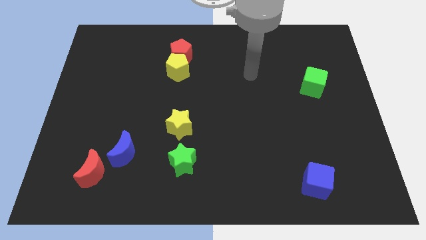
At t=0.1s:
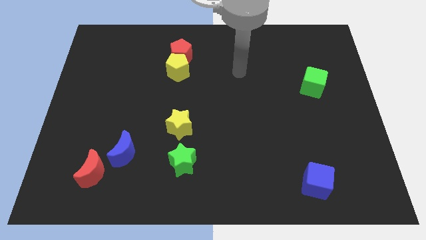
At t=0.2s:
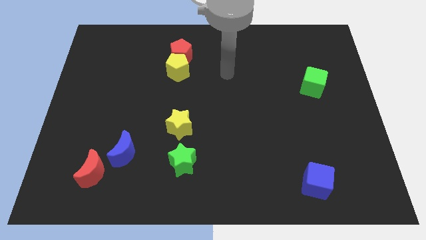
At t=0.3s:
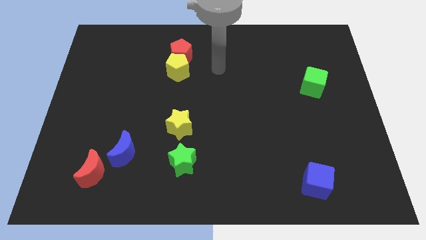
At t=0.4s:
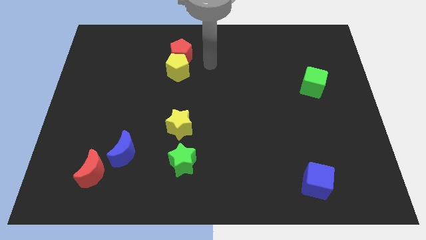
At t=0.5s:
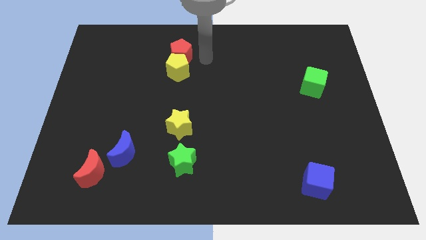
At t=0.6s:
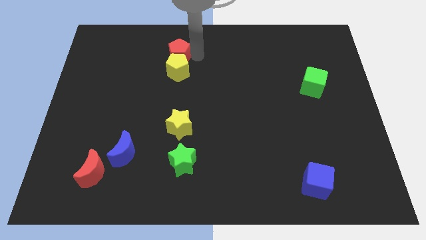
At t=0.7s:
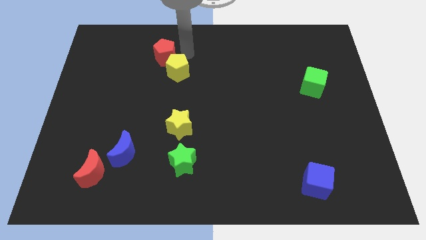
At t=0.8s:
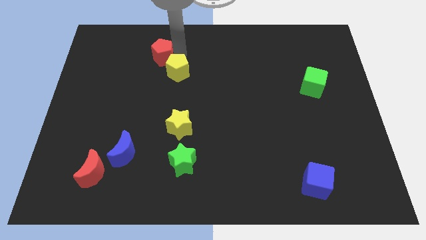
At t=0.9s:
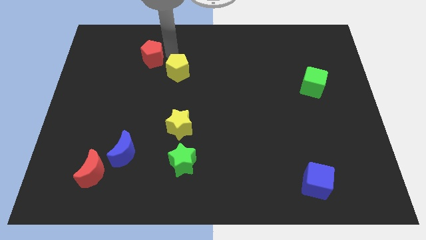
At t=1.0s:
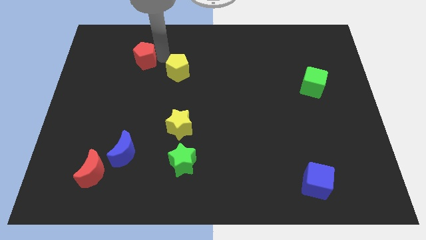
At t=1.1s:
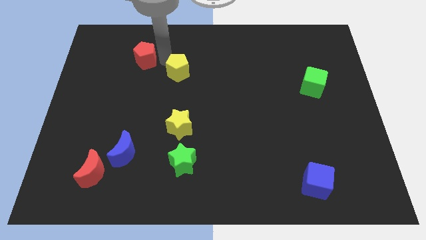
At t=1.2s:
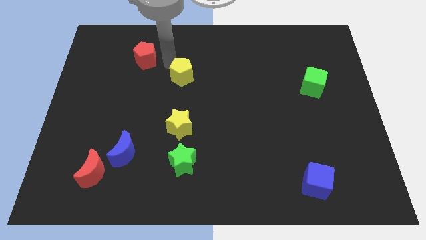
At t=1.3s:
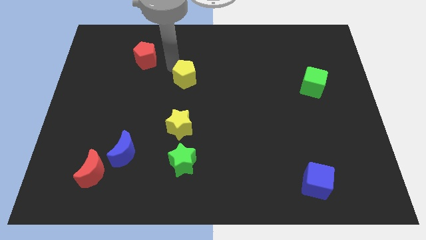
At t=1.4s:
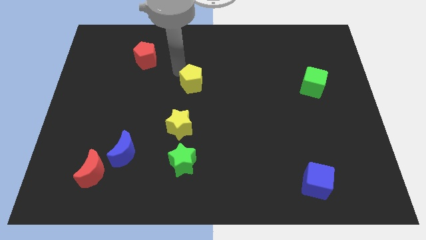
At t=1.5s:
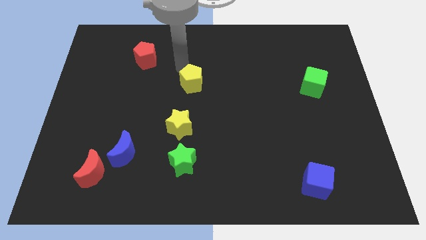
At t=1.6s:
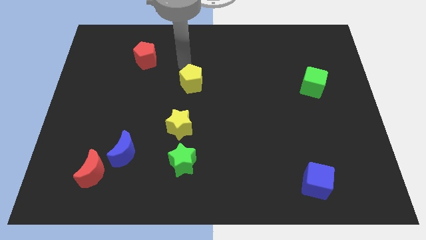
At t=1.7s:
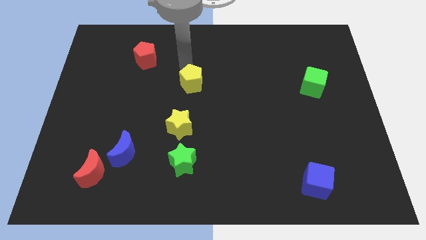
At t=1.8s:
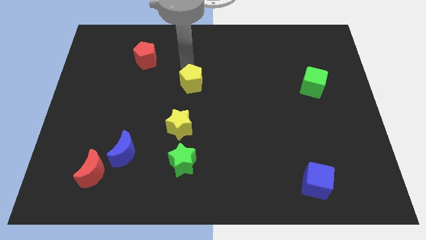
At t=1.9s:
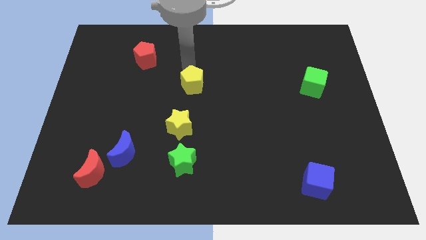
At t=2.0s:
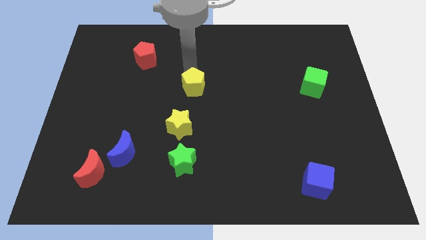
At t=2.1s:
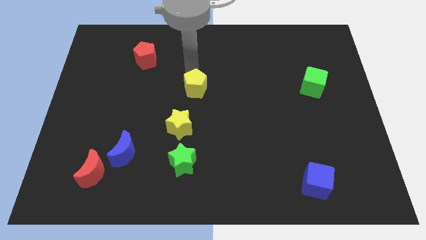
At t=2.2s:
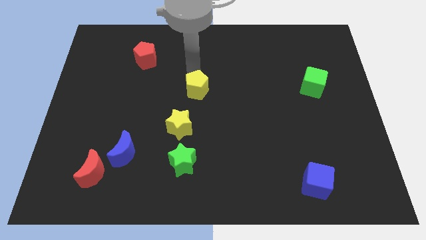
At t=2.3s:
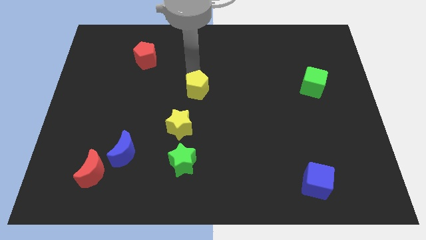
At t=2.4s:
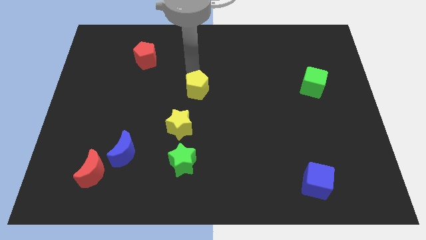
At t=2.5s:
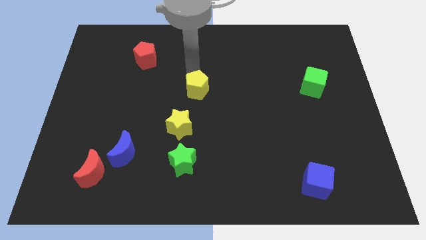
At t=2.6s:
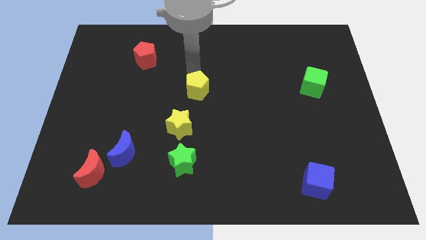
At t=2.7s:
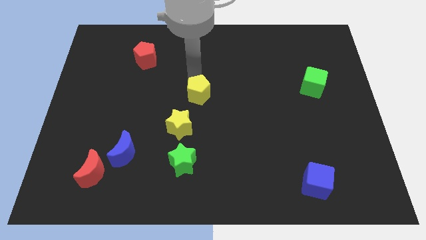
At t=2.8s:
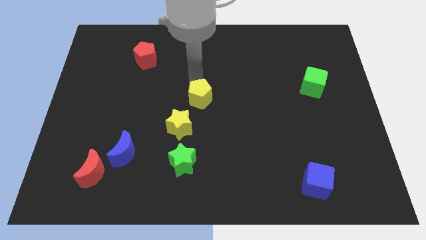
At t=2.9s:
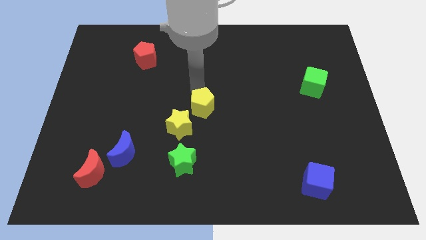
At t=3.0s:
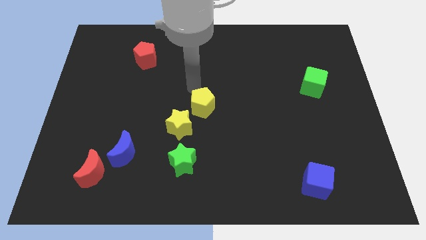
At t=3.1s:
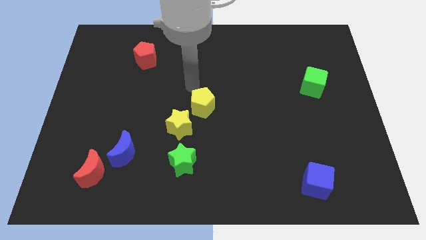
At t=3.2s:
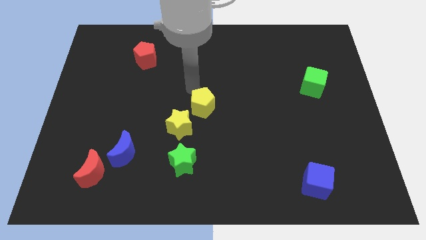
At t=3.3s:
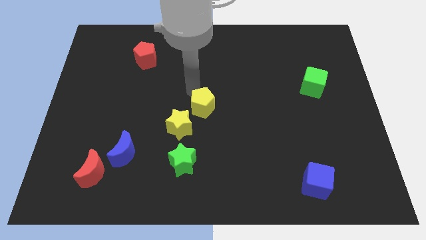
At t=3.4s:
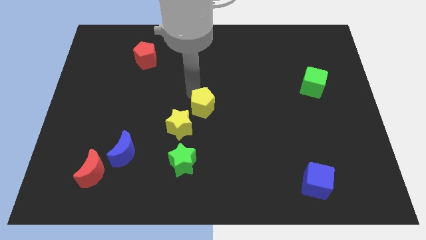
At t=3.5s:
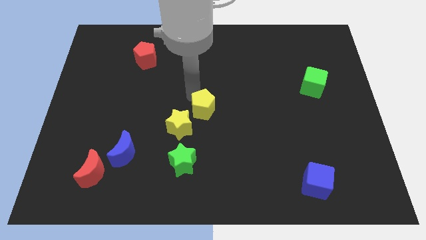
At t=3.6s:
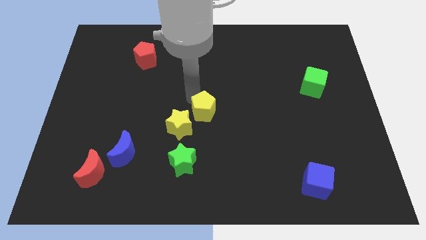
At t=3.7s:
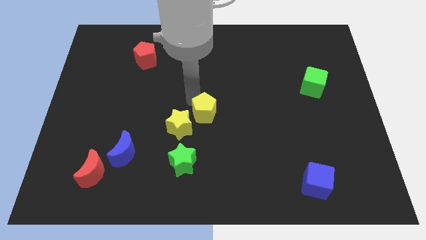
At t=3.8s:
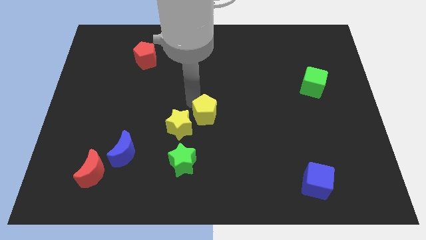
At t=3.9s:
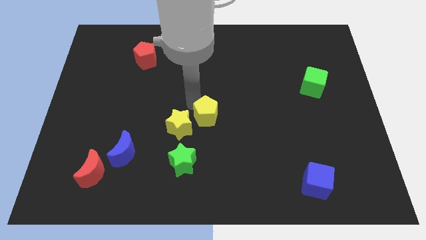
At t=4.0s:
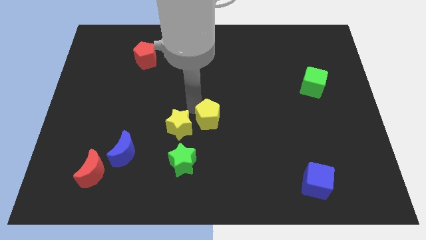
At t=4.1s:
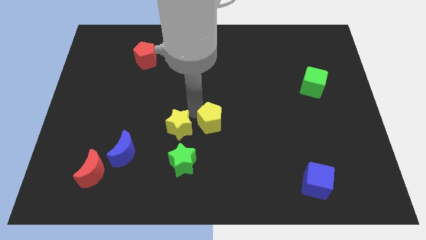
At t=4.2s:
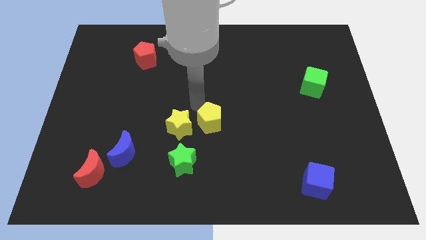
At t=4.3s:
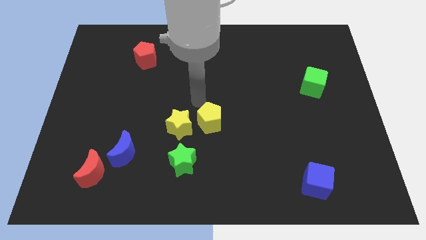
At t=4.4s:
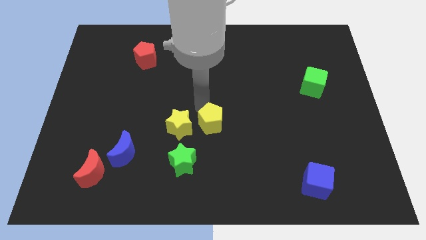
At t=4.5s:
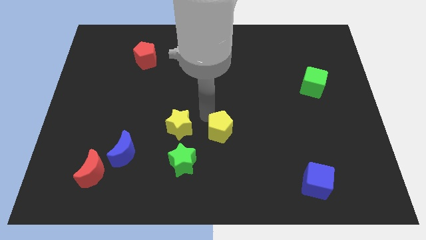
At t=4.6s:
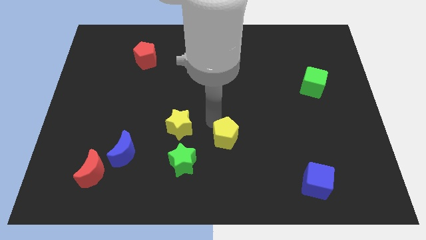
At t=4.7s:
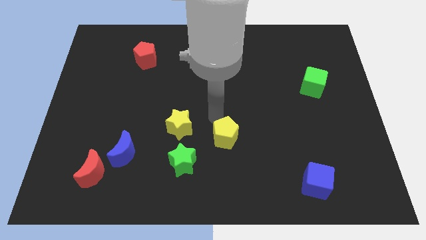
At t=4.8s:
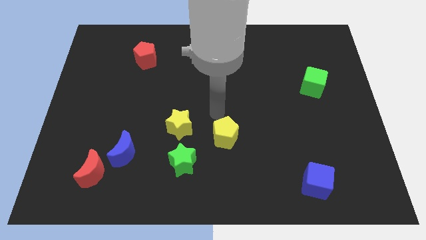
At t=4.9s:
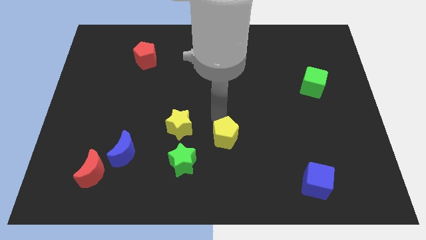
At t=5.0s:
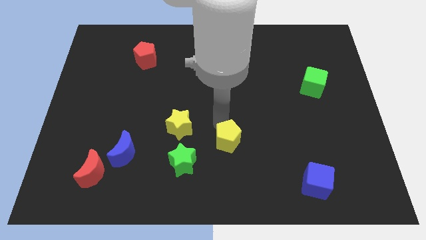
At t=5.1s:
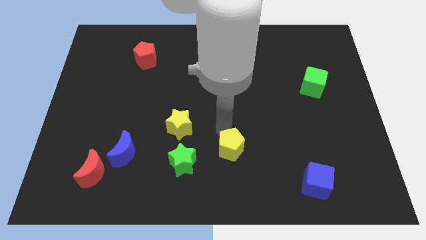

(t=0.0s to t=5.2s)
slide the yellow pentagon to the right side of the green star

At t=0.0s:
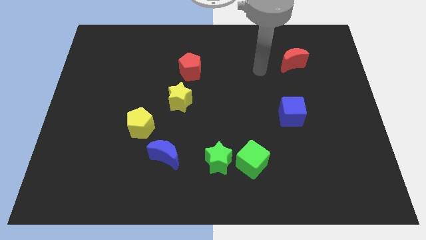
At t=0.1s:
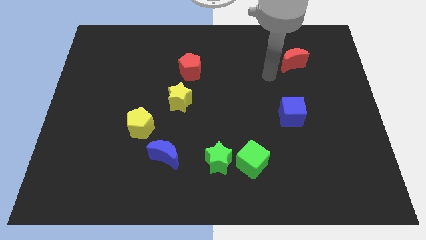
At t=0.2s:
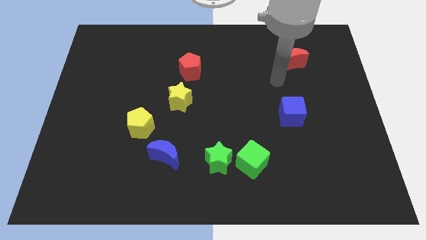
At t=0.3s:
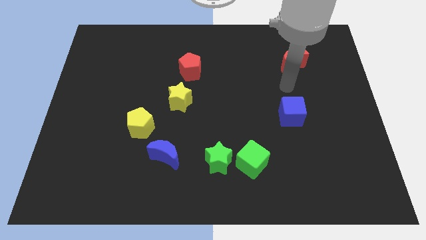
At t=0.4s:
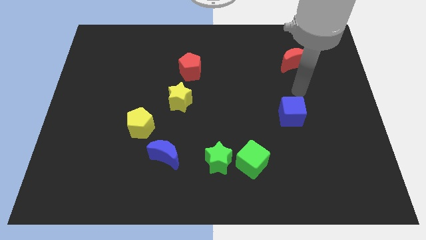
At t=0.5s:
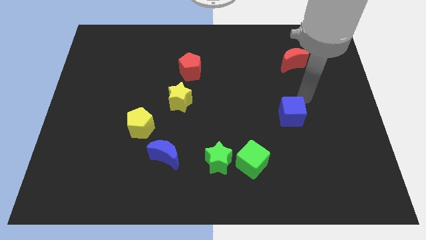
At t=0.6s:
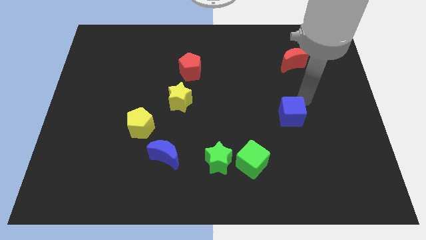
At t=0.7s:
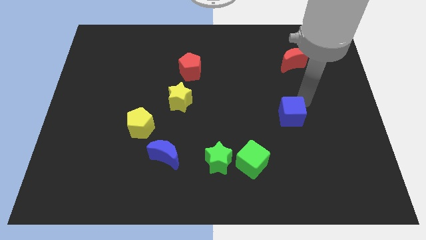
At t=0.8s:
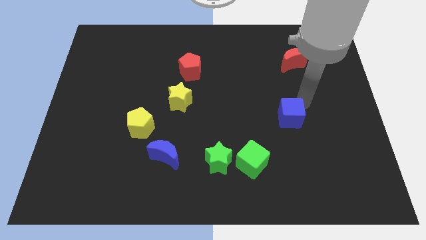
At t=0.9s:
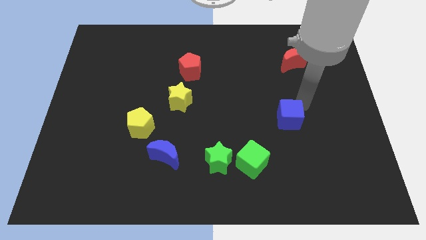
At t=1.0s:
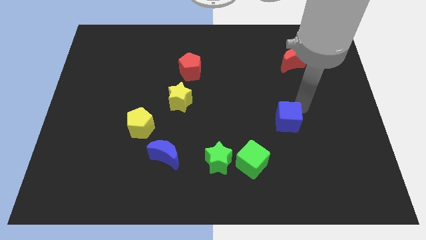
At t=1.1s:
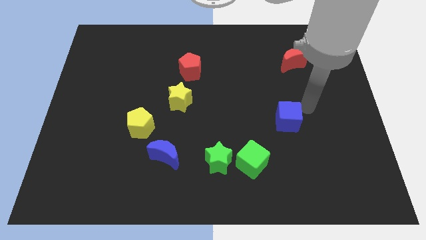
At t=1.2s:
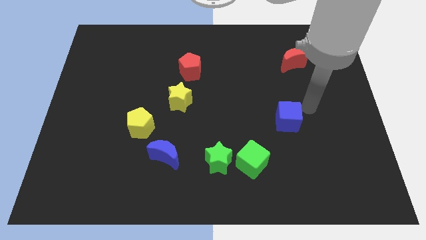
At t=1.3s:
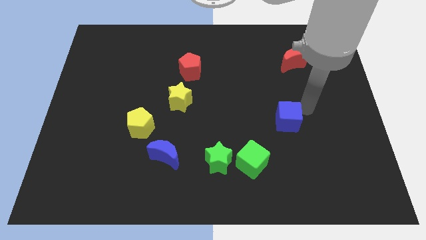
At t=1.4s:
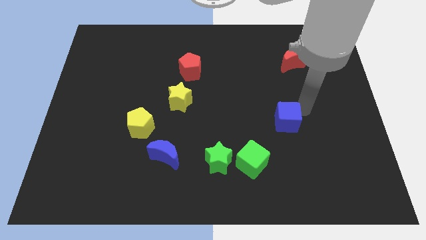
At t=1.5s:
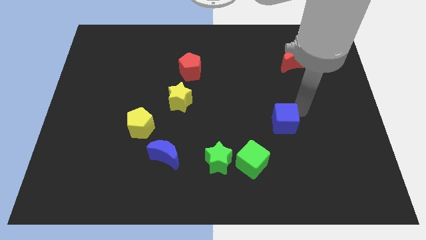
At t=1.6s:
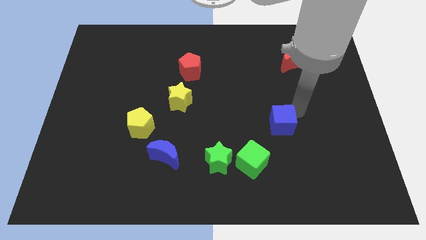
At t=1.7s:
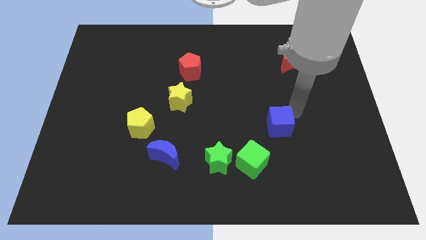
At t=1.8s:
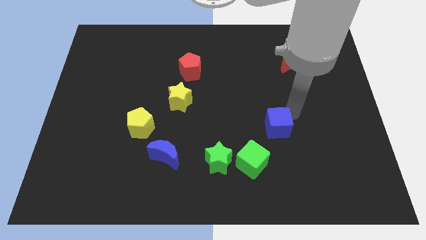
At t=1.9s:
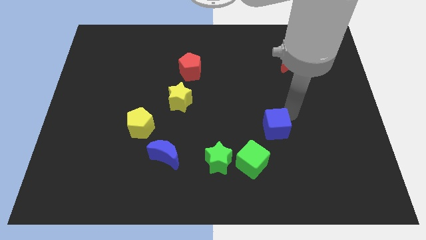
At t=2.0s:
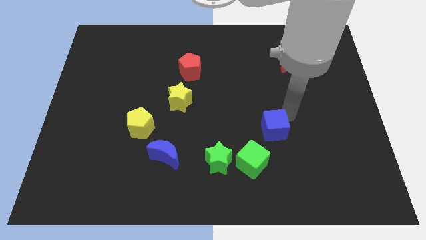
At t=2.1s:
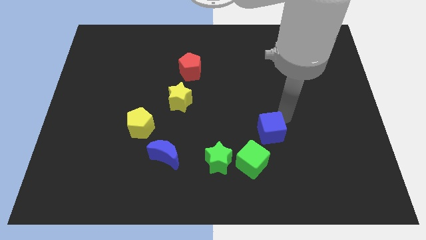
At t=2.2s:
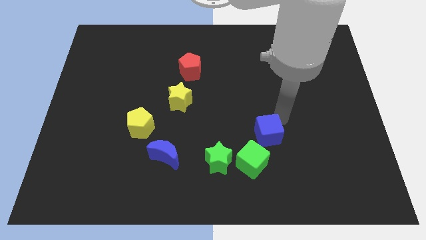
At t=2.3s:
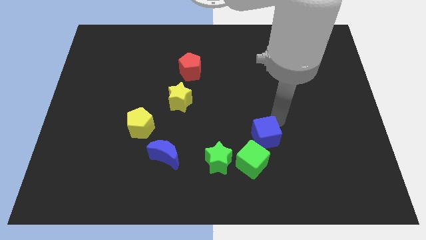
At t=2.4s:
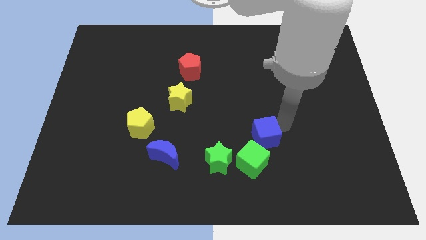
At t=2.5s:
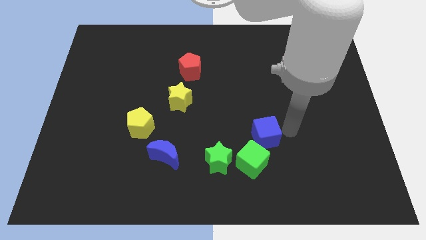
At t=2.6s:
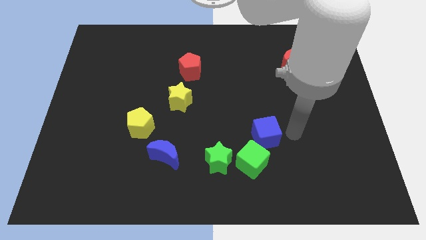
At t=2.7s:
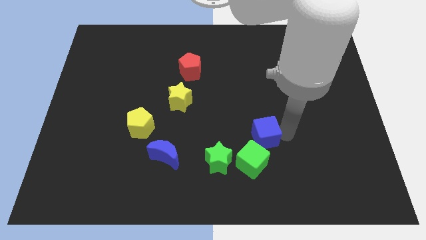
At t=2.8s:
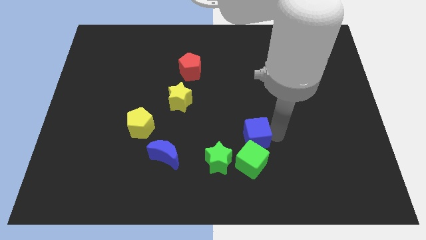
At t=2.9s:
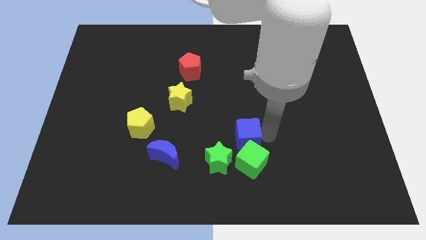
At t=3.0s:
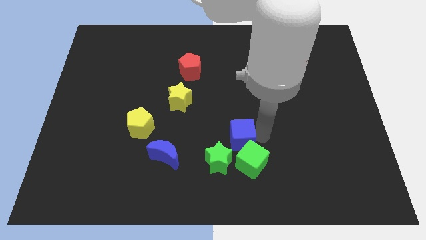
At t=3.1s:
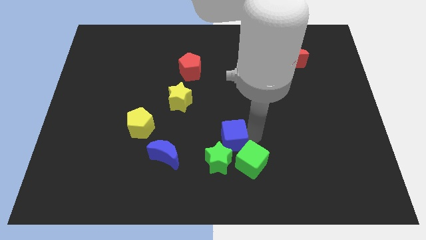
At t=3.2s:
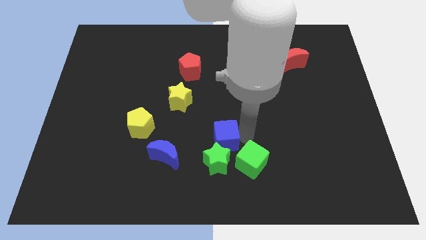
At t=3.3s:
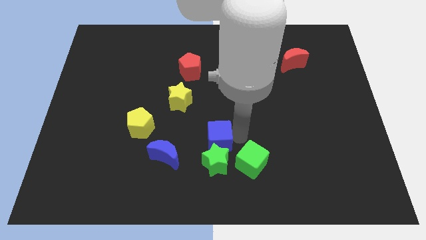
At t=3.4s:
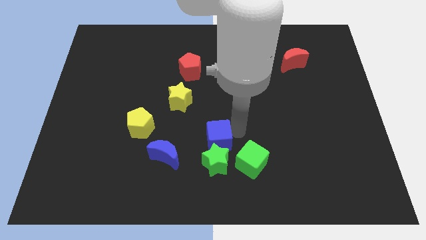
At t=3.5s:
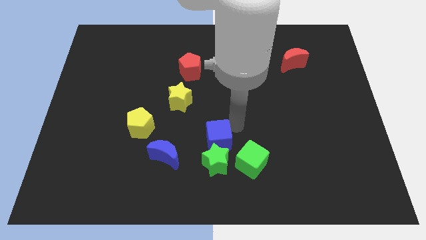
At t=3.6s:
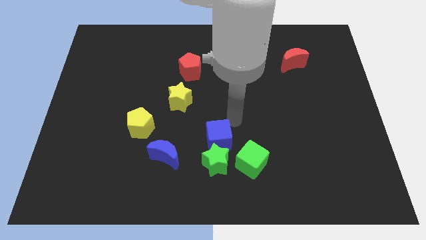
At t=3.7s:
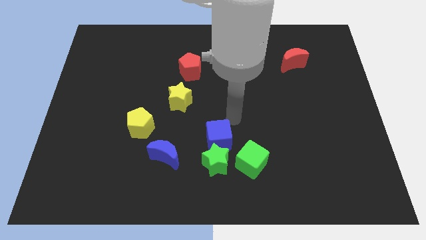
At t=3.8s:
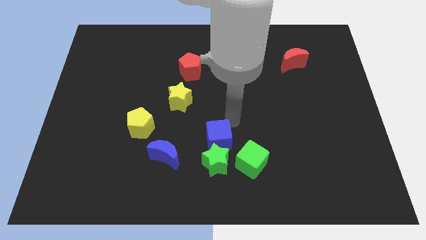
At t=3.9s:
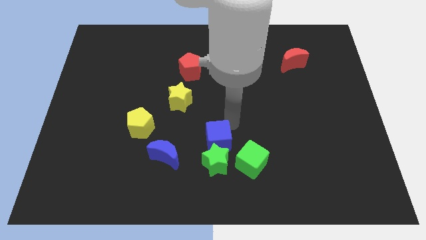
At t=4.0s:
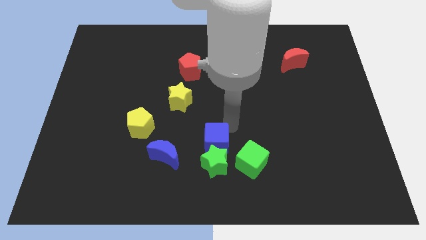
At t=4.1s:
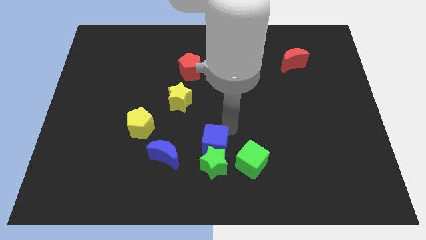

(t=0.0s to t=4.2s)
slide the blue cube to the left of the green cube
